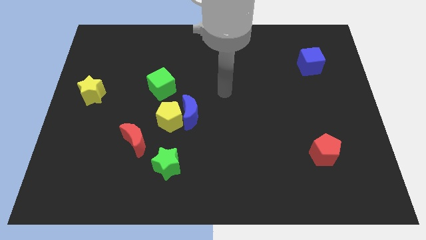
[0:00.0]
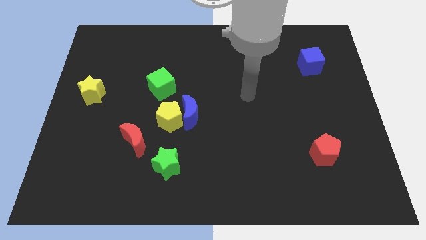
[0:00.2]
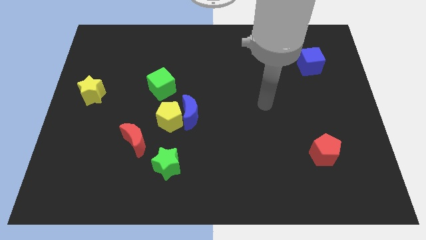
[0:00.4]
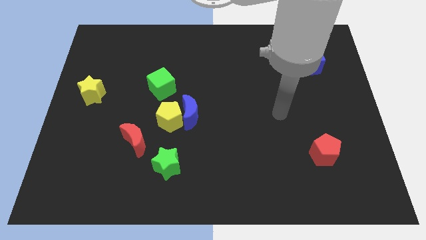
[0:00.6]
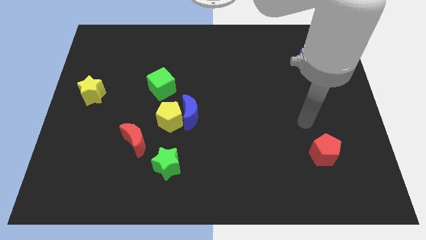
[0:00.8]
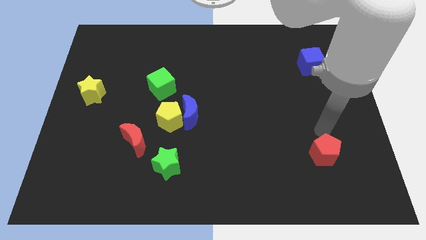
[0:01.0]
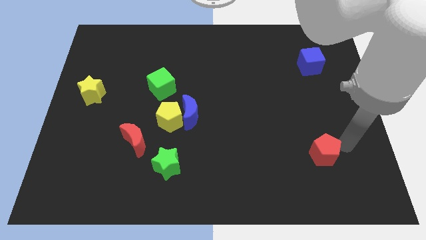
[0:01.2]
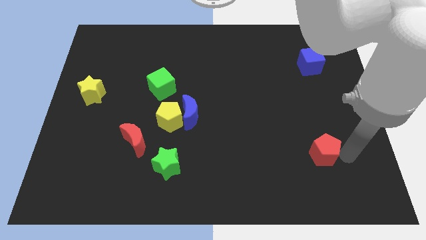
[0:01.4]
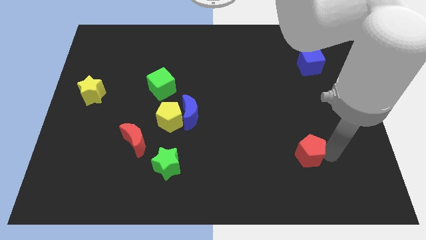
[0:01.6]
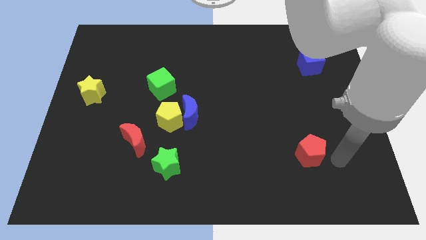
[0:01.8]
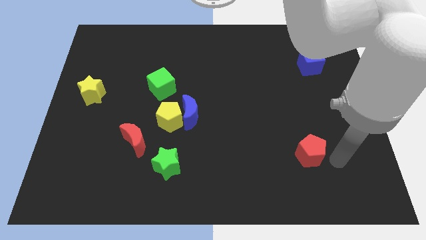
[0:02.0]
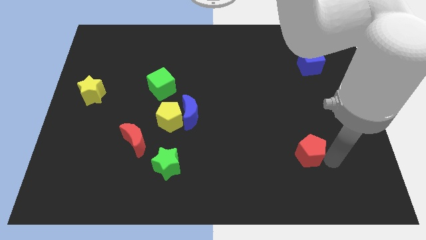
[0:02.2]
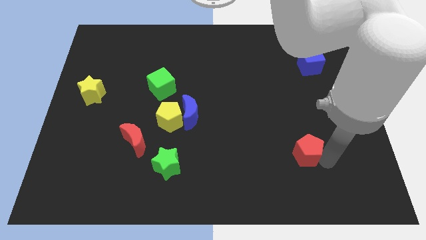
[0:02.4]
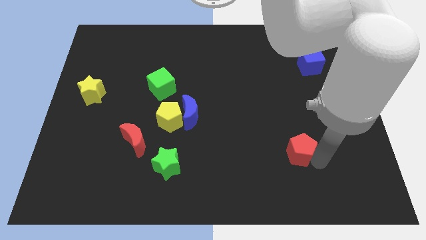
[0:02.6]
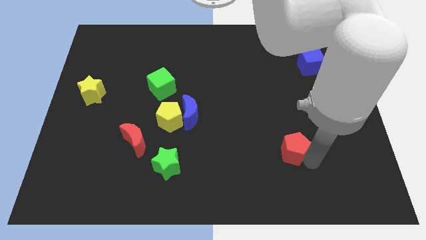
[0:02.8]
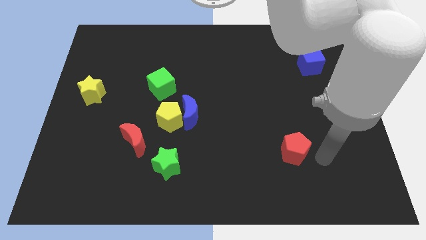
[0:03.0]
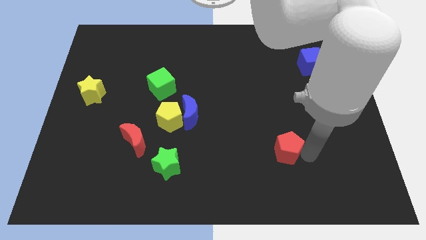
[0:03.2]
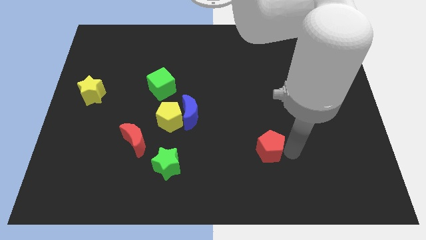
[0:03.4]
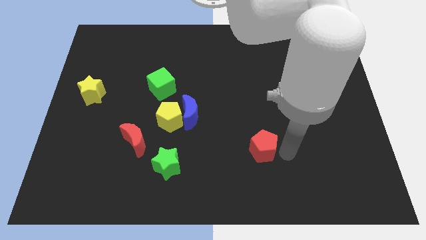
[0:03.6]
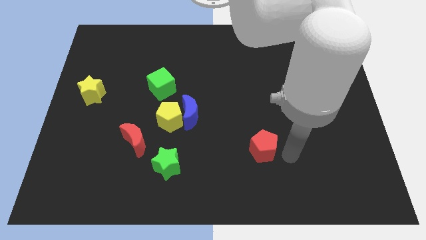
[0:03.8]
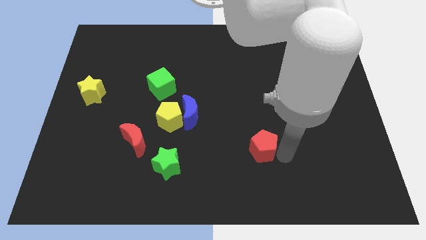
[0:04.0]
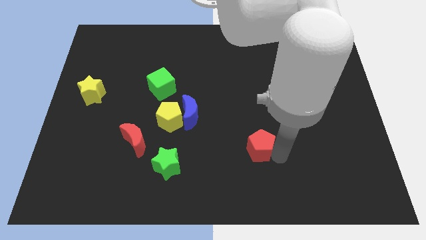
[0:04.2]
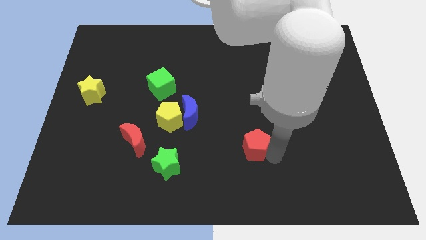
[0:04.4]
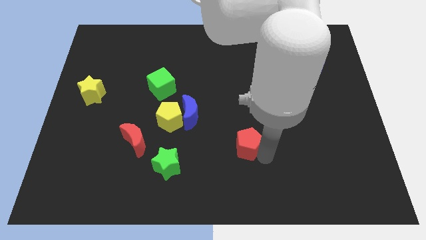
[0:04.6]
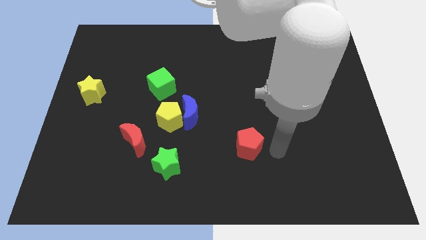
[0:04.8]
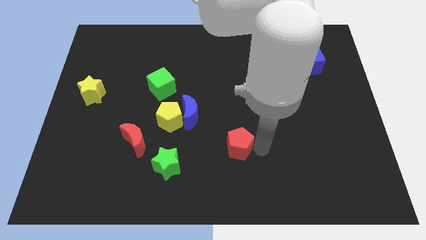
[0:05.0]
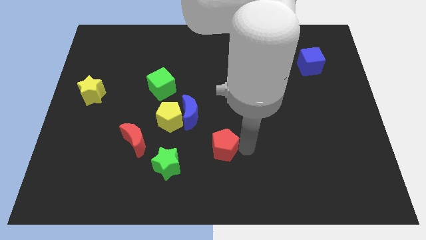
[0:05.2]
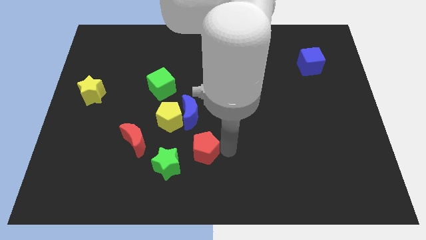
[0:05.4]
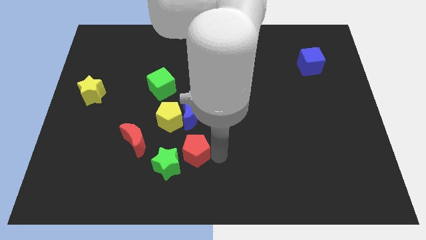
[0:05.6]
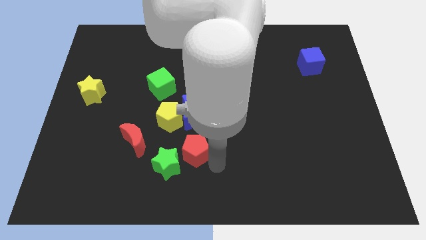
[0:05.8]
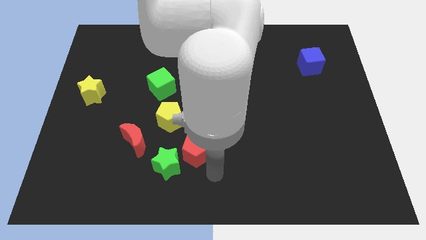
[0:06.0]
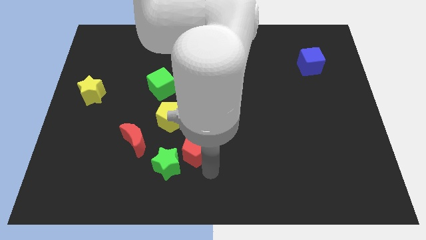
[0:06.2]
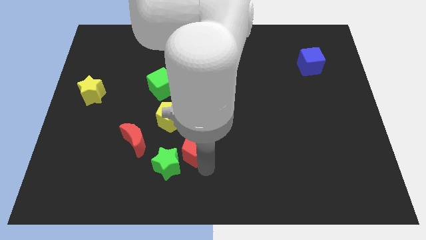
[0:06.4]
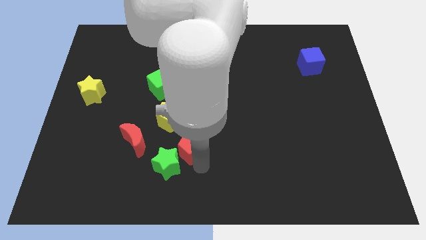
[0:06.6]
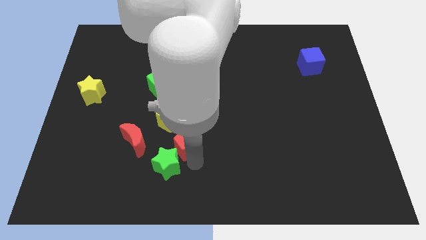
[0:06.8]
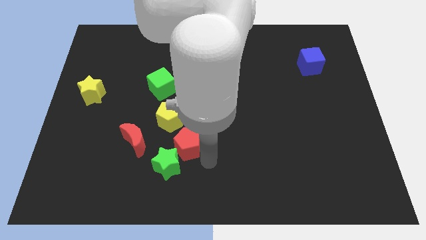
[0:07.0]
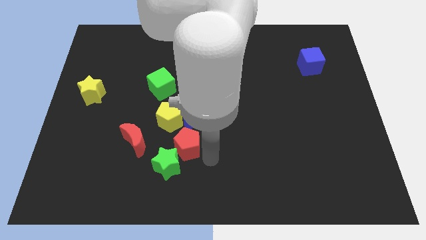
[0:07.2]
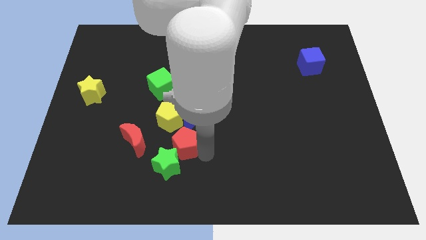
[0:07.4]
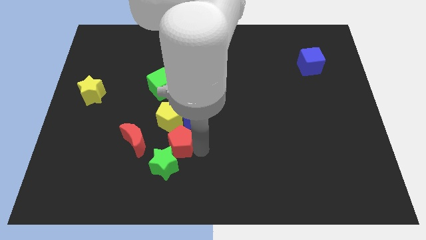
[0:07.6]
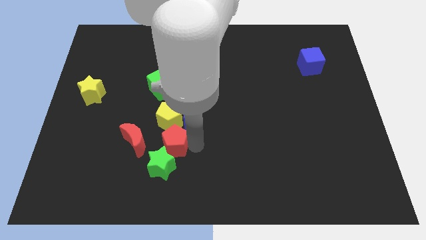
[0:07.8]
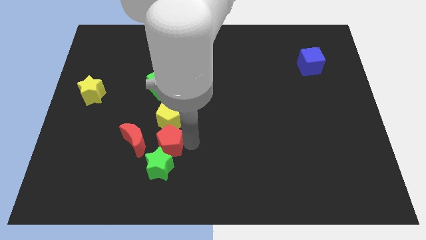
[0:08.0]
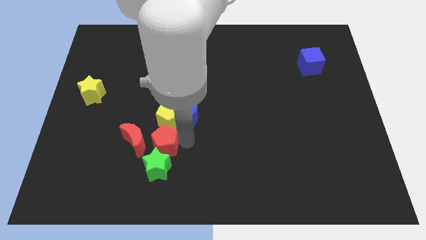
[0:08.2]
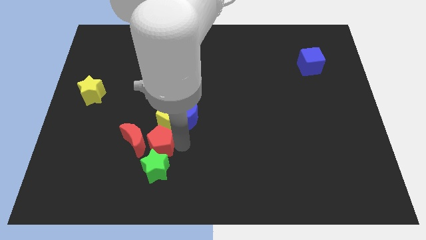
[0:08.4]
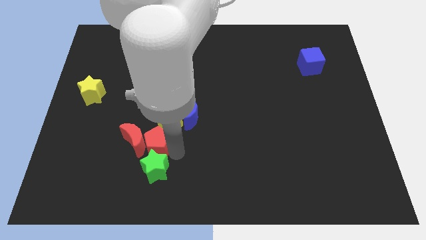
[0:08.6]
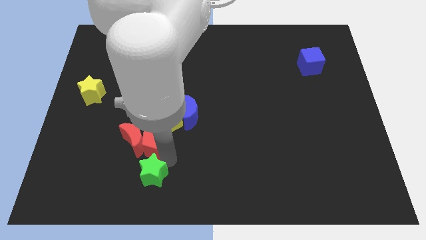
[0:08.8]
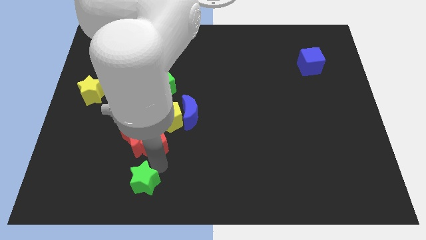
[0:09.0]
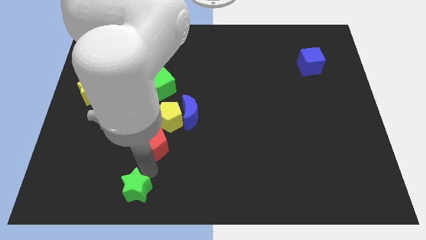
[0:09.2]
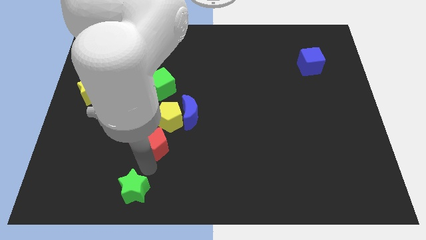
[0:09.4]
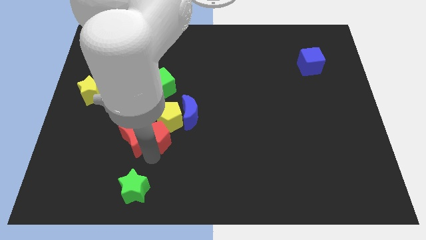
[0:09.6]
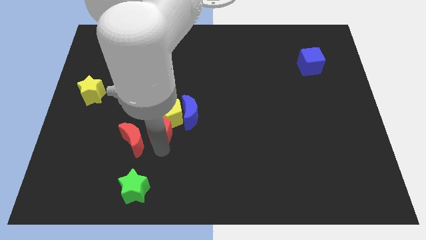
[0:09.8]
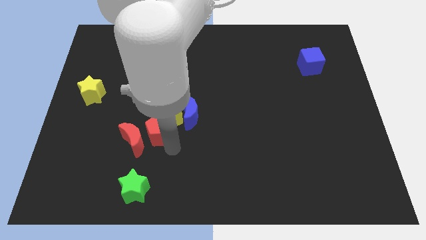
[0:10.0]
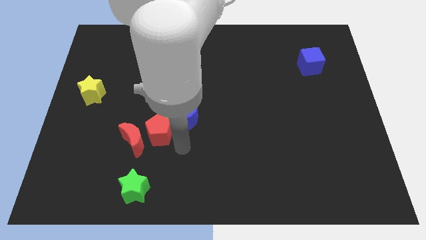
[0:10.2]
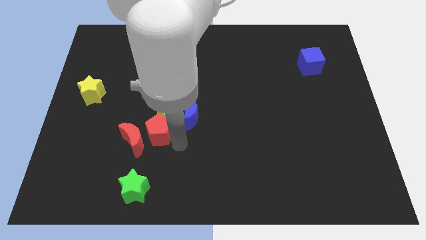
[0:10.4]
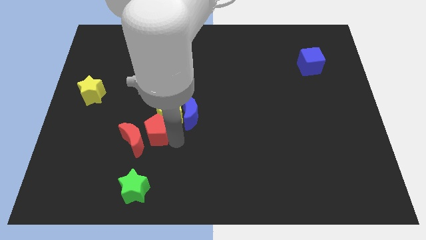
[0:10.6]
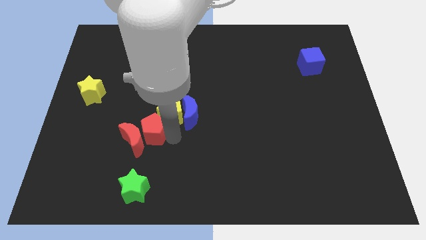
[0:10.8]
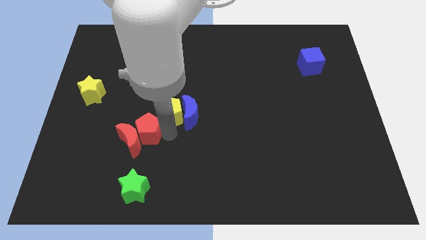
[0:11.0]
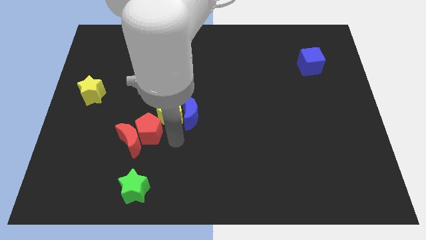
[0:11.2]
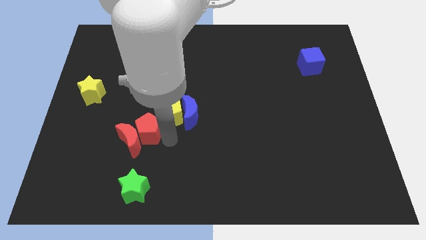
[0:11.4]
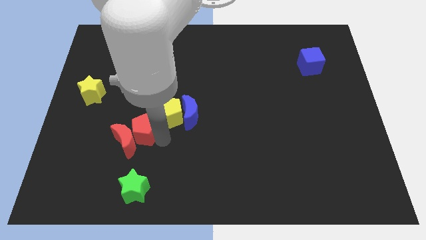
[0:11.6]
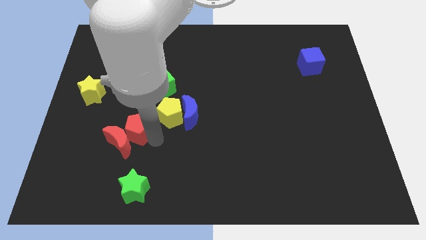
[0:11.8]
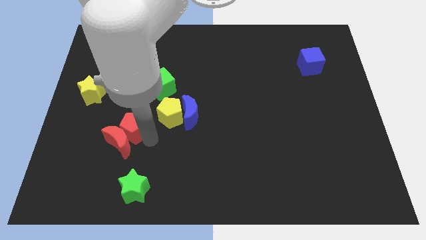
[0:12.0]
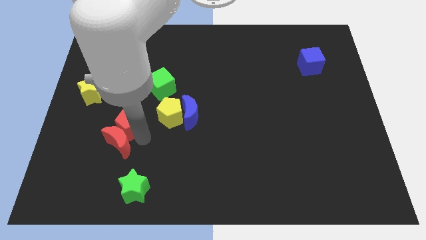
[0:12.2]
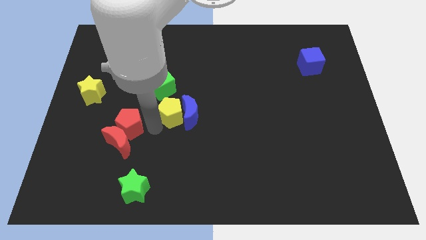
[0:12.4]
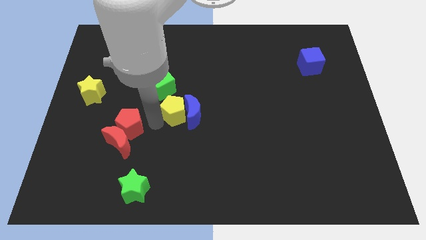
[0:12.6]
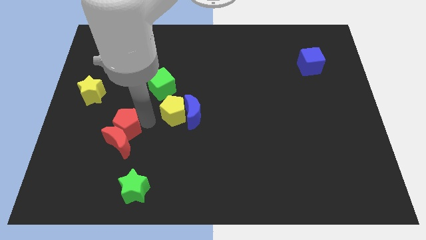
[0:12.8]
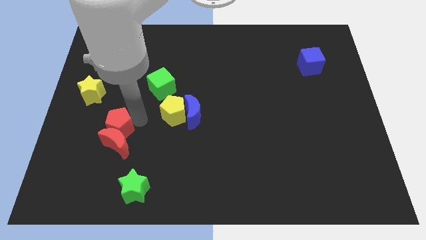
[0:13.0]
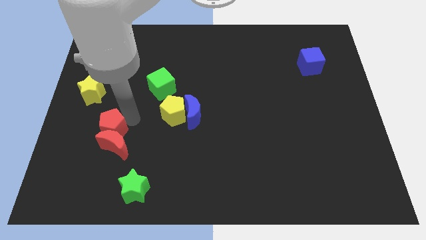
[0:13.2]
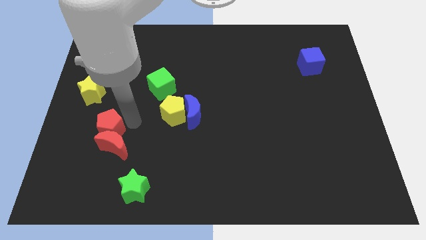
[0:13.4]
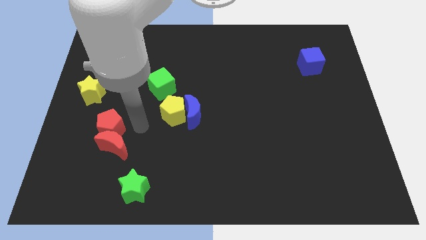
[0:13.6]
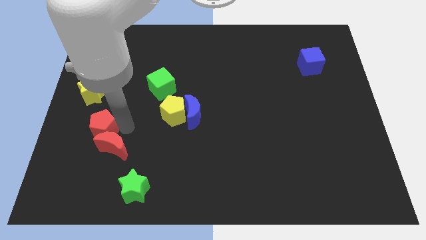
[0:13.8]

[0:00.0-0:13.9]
slide the red pentagon below the yellow star
